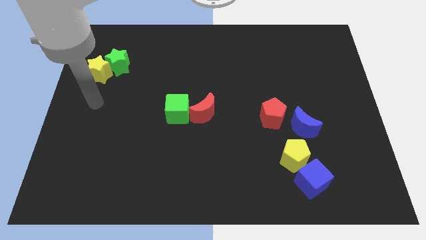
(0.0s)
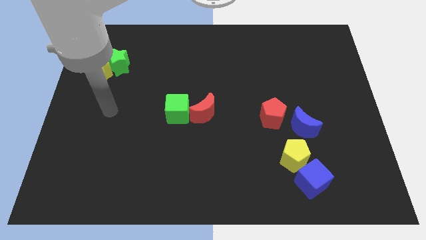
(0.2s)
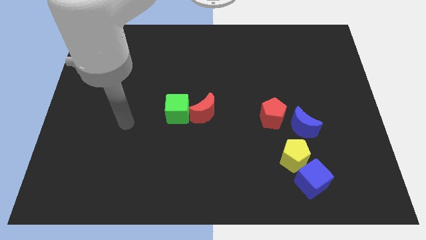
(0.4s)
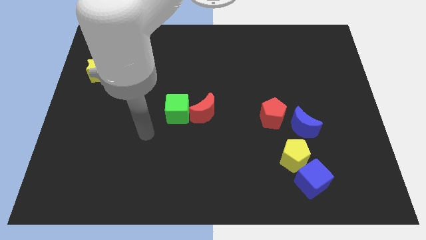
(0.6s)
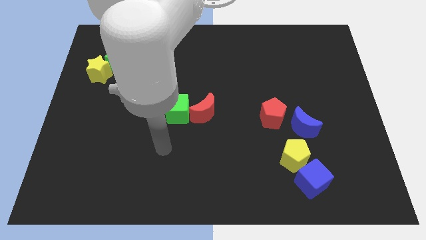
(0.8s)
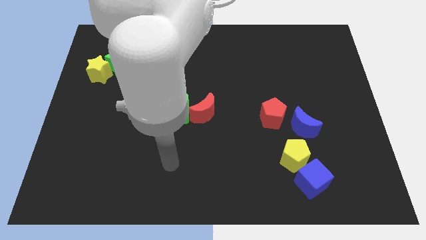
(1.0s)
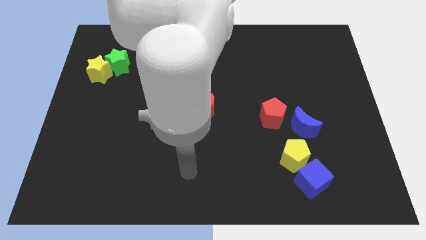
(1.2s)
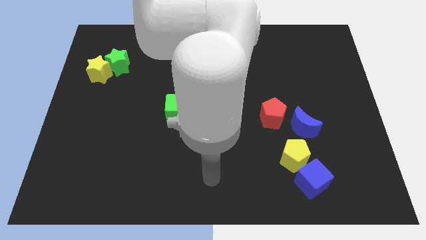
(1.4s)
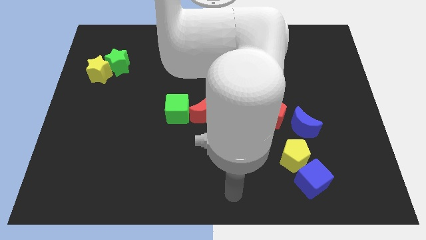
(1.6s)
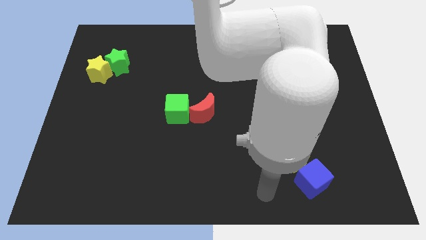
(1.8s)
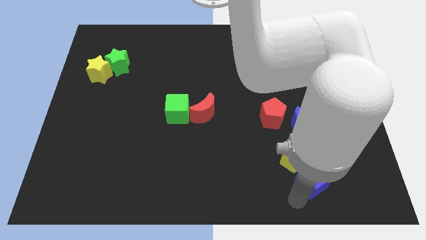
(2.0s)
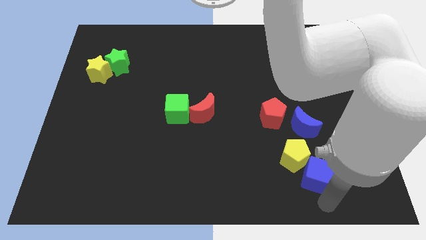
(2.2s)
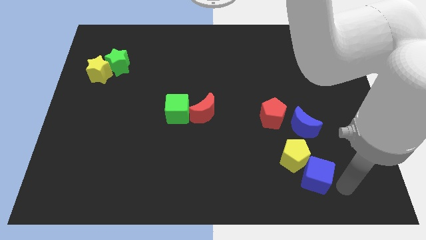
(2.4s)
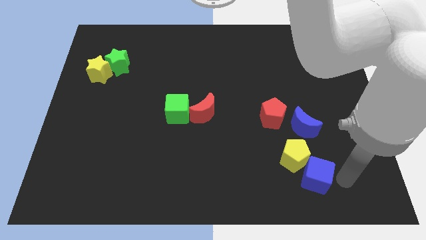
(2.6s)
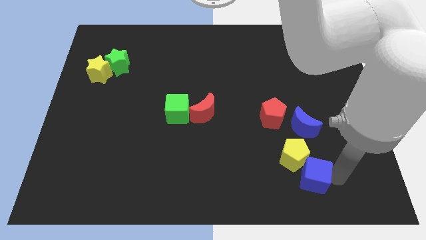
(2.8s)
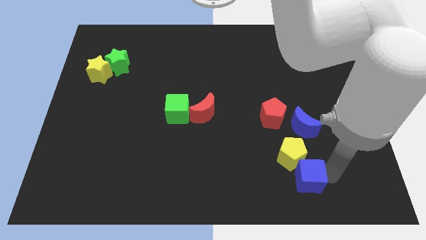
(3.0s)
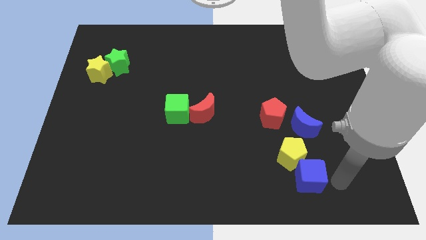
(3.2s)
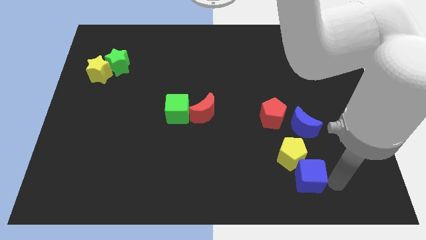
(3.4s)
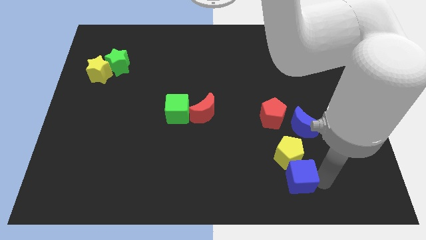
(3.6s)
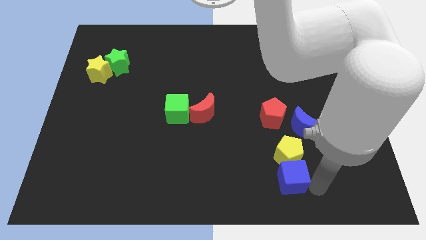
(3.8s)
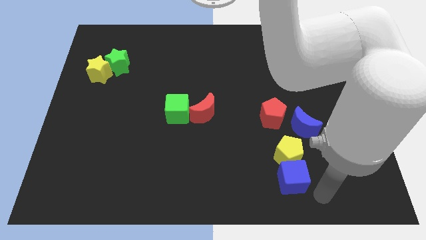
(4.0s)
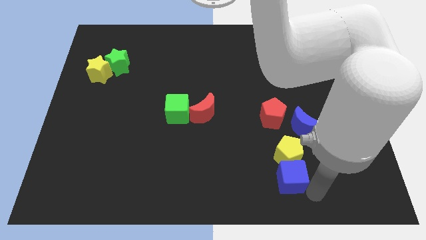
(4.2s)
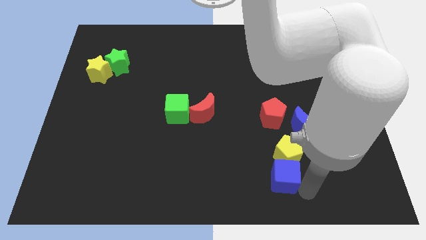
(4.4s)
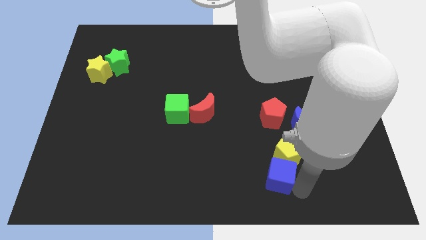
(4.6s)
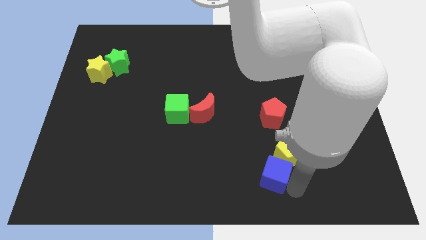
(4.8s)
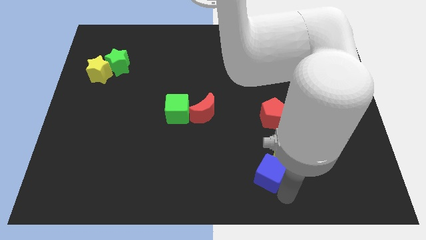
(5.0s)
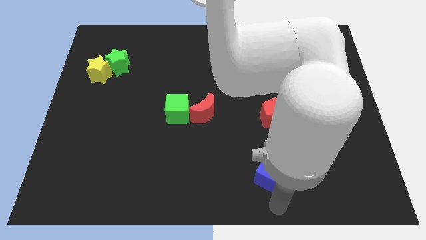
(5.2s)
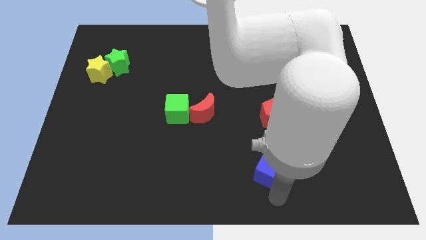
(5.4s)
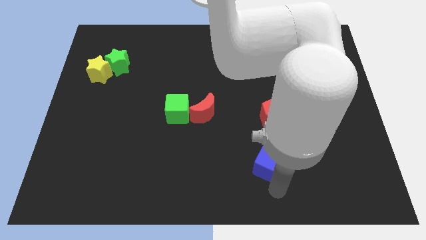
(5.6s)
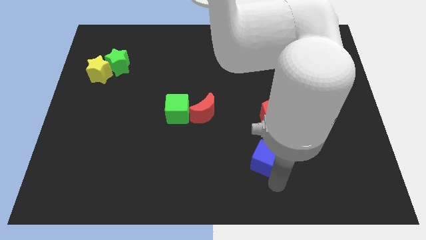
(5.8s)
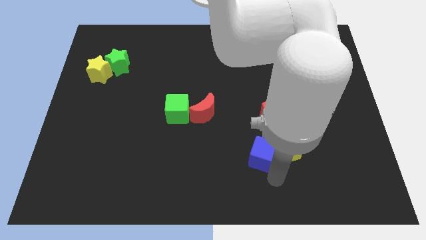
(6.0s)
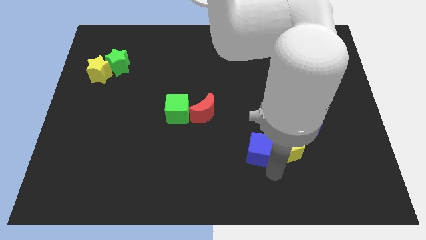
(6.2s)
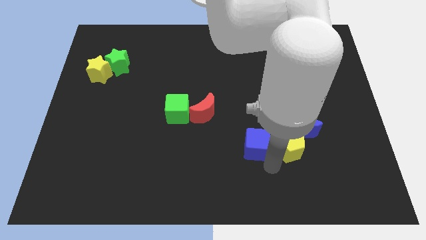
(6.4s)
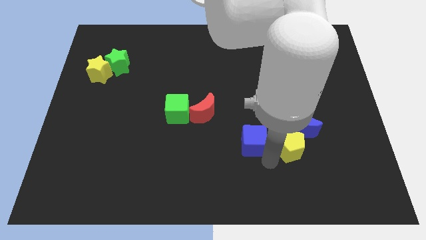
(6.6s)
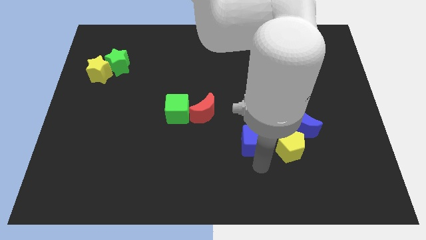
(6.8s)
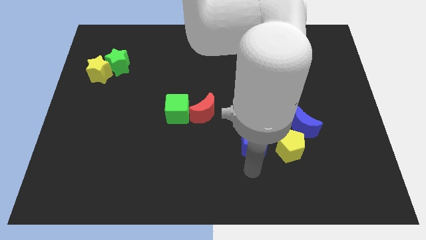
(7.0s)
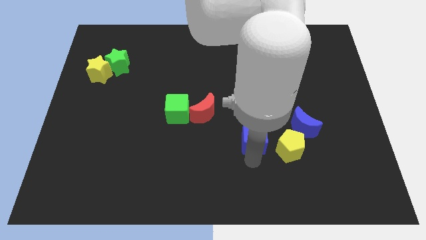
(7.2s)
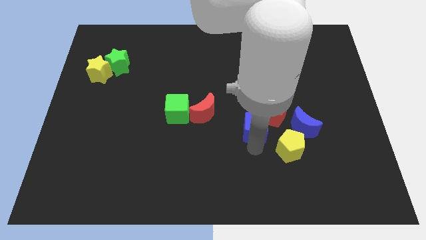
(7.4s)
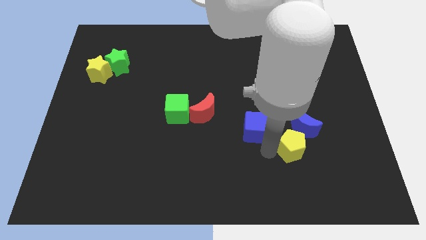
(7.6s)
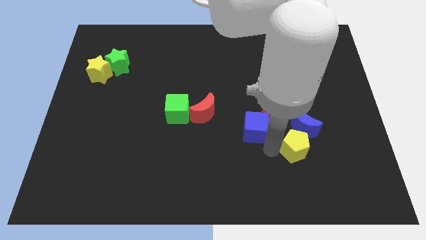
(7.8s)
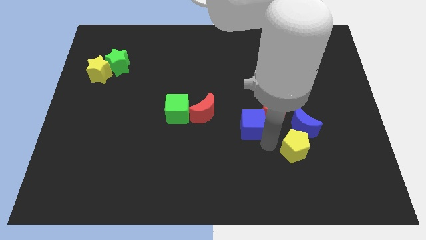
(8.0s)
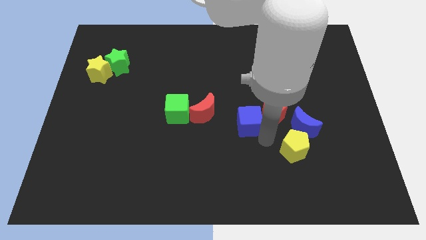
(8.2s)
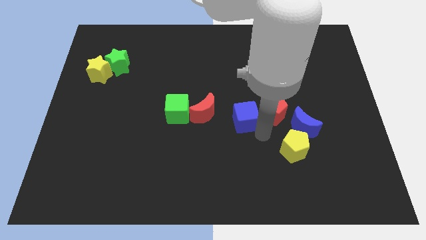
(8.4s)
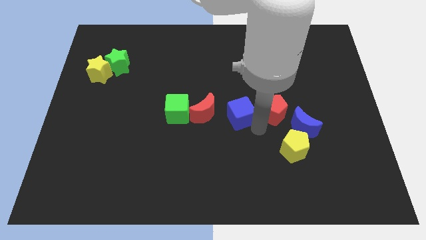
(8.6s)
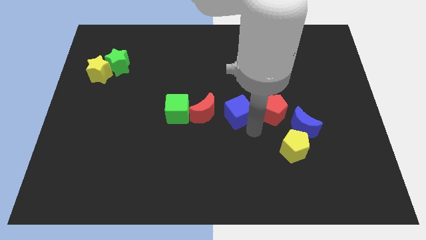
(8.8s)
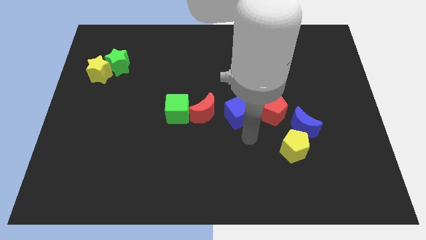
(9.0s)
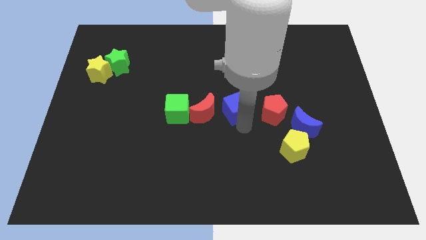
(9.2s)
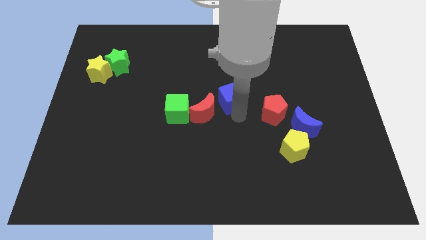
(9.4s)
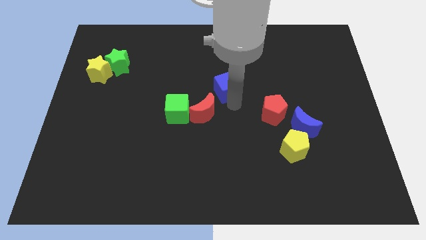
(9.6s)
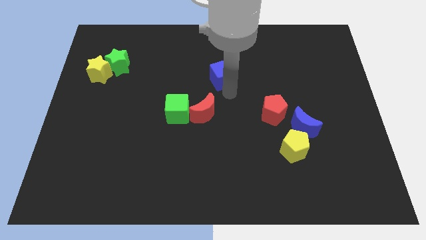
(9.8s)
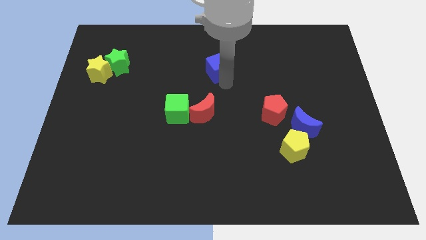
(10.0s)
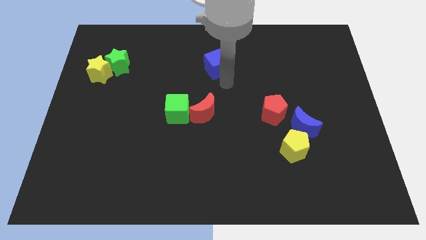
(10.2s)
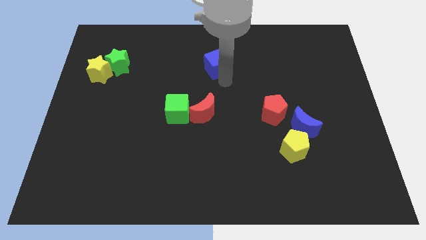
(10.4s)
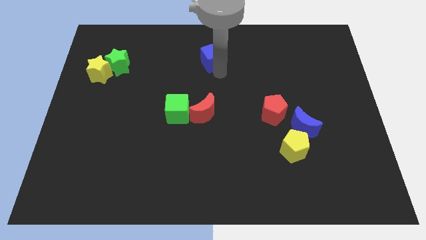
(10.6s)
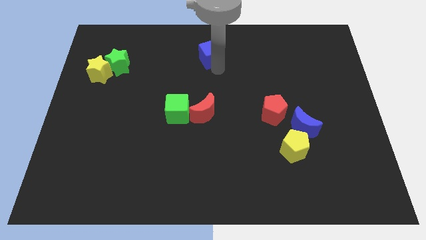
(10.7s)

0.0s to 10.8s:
move the blue cube to the top side

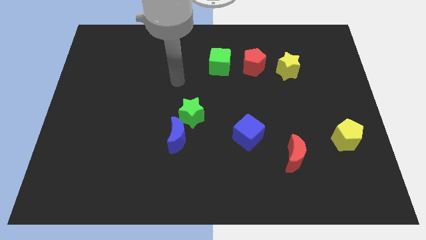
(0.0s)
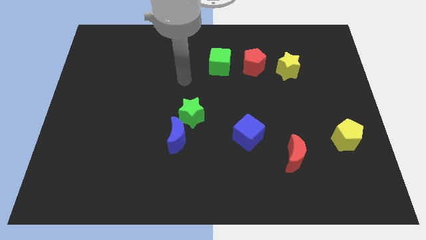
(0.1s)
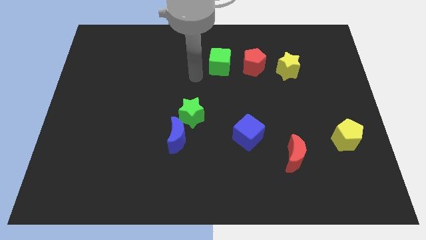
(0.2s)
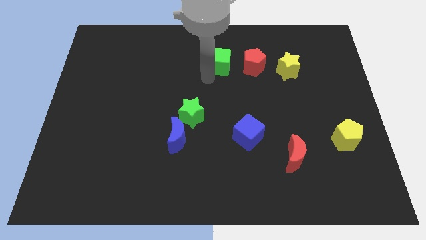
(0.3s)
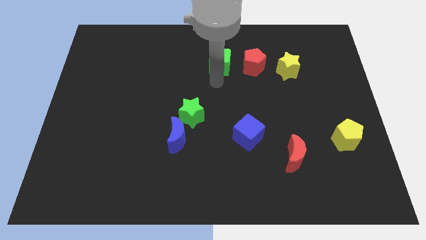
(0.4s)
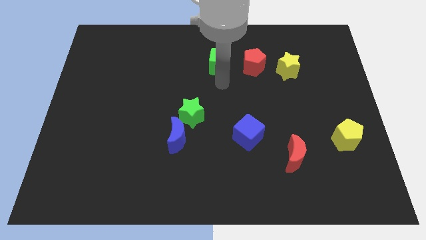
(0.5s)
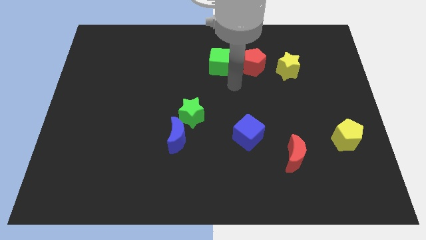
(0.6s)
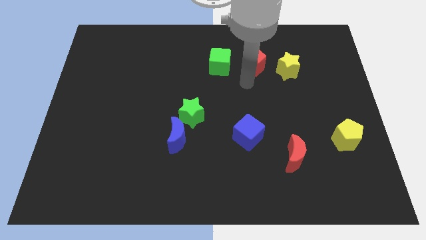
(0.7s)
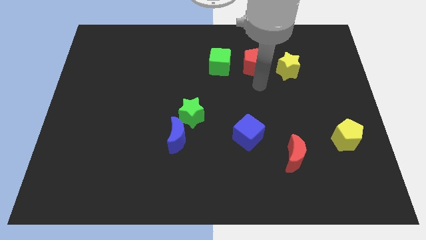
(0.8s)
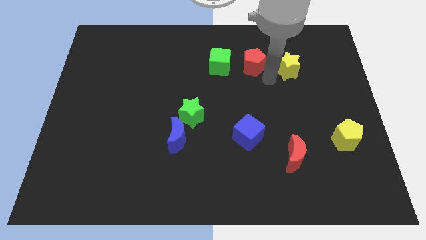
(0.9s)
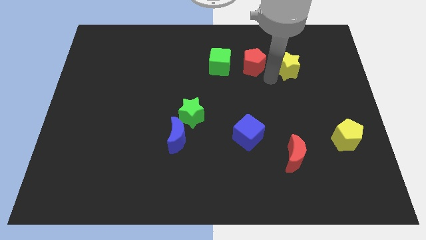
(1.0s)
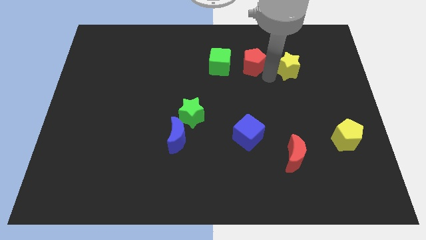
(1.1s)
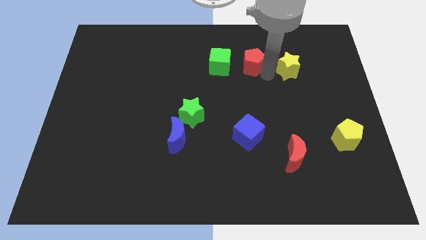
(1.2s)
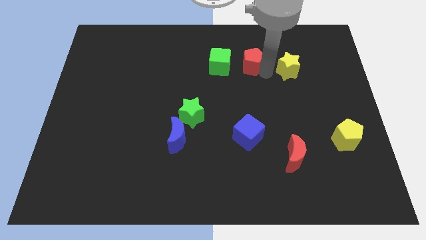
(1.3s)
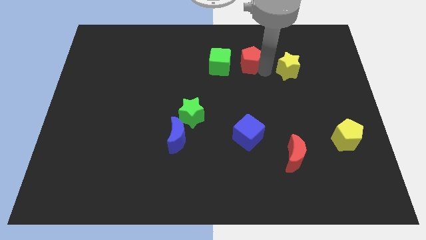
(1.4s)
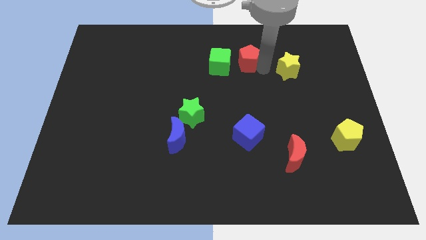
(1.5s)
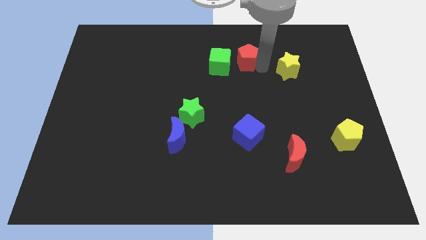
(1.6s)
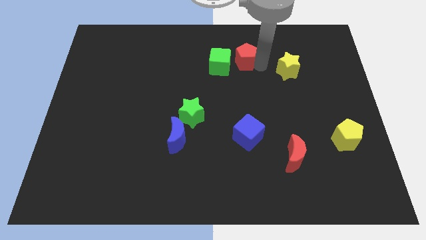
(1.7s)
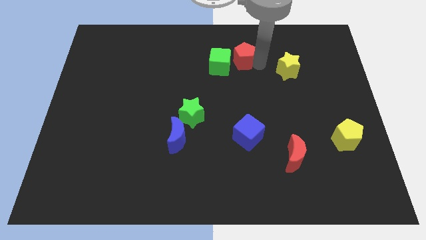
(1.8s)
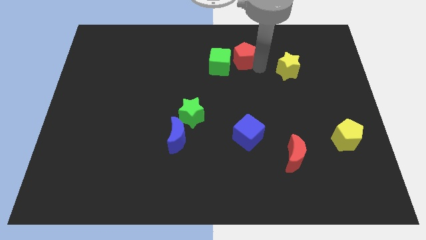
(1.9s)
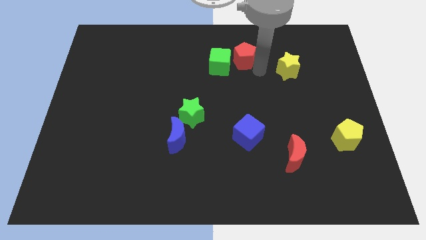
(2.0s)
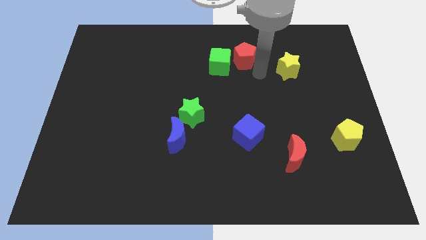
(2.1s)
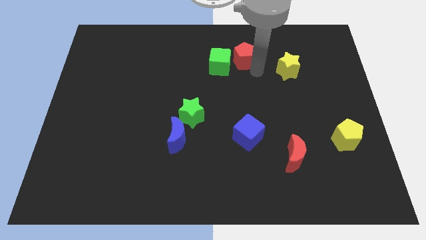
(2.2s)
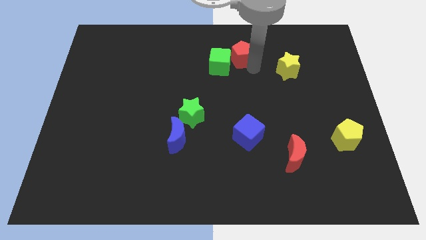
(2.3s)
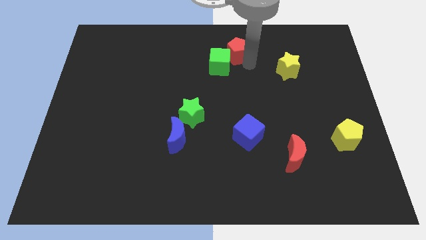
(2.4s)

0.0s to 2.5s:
put the red pentagon to the top side
